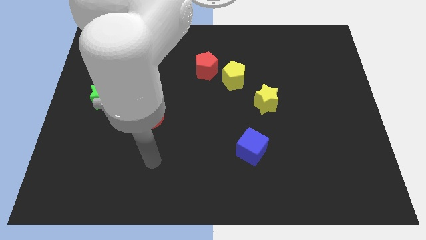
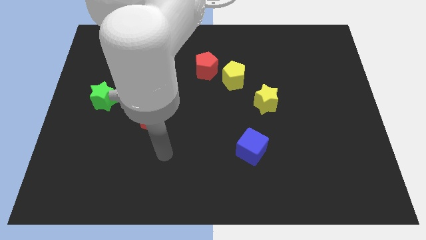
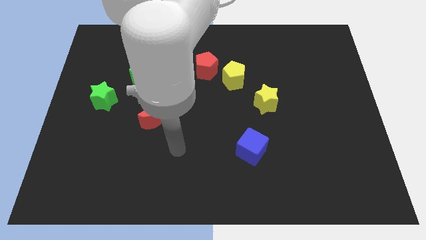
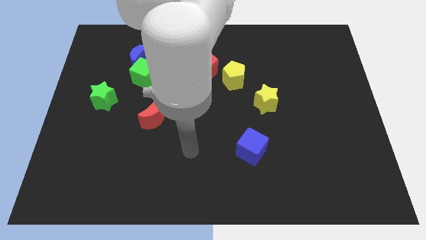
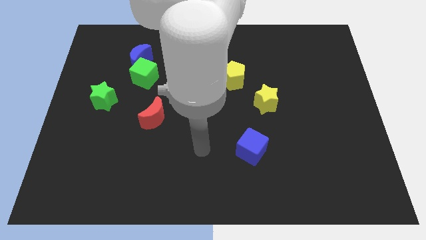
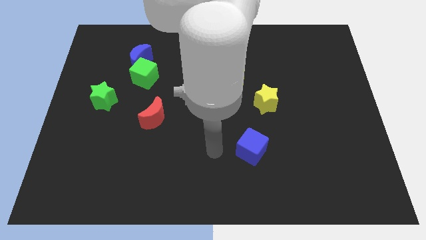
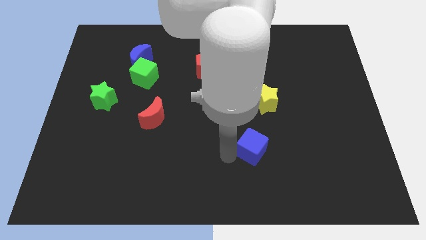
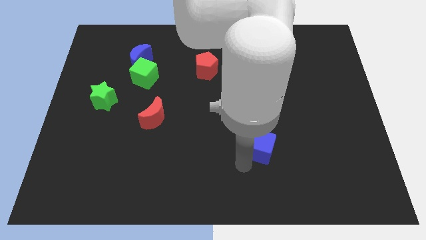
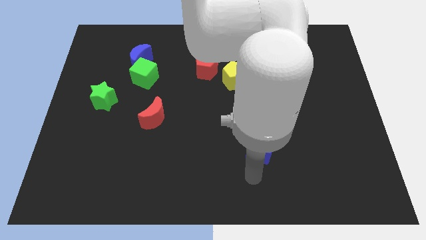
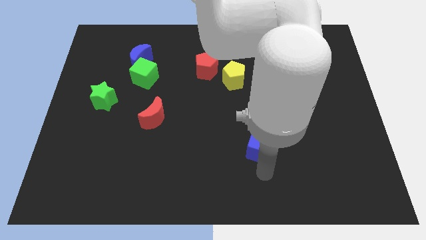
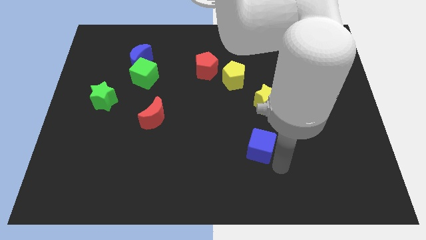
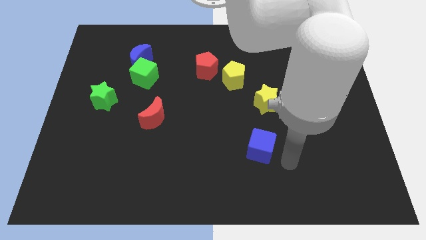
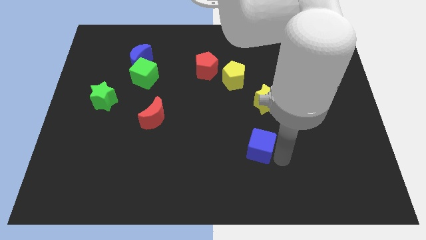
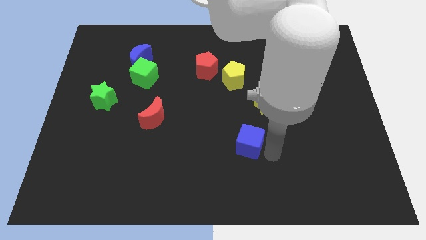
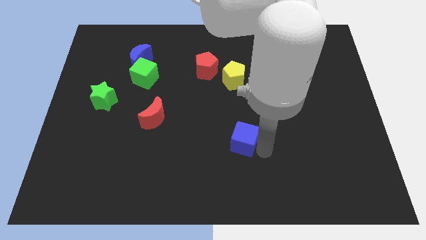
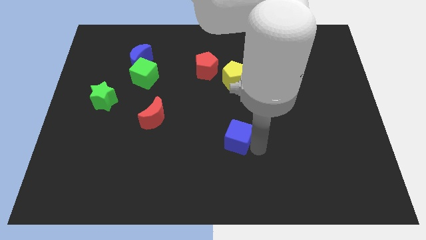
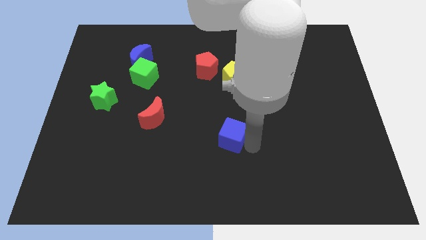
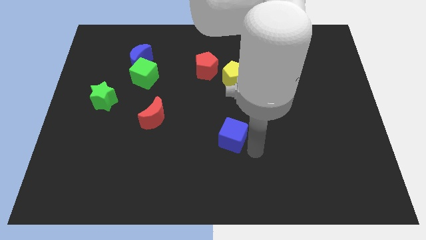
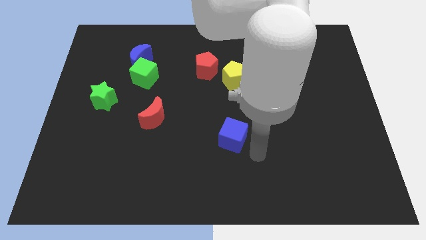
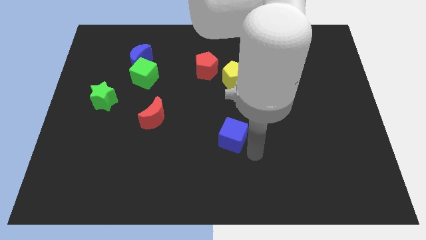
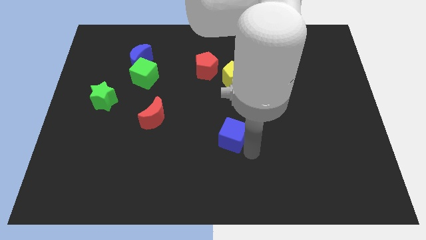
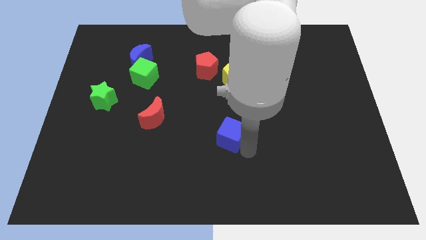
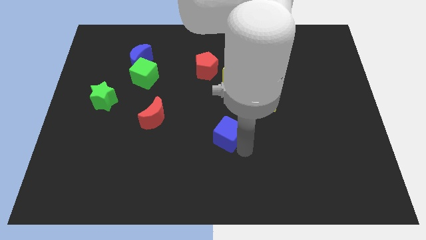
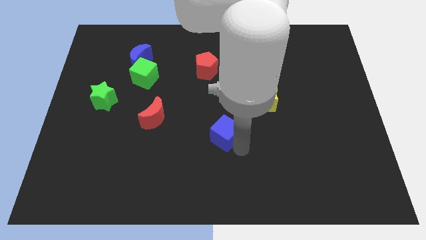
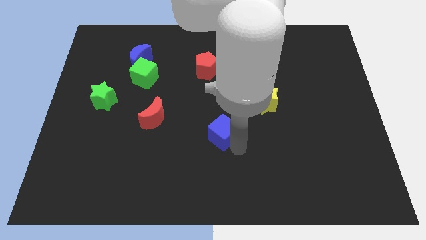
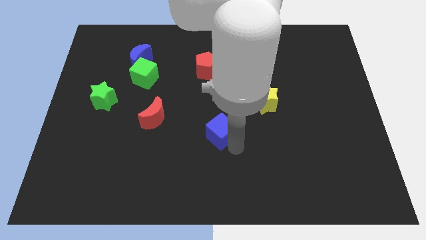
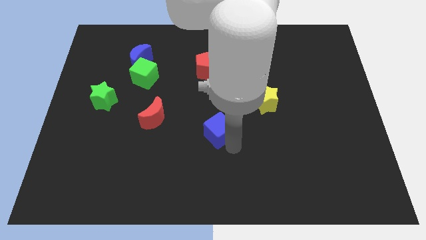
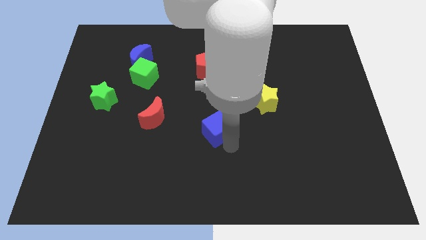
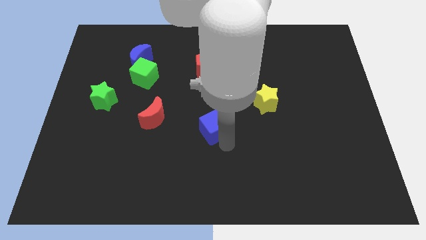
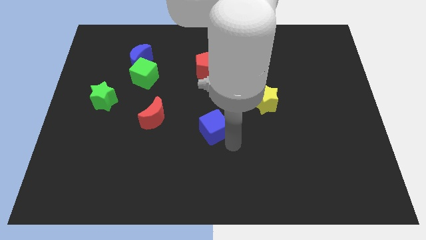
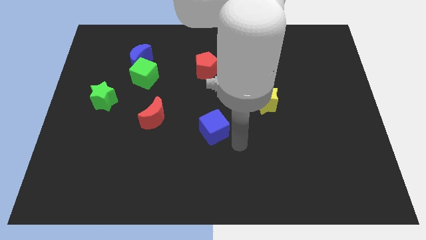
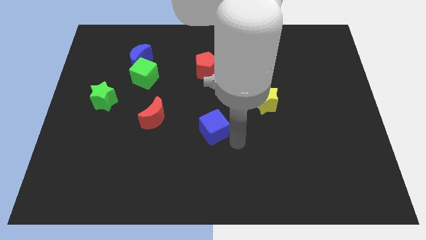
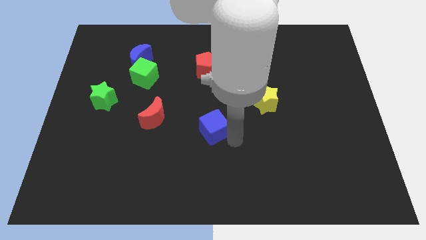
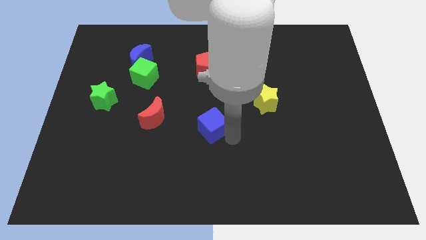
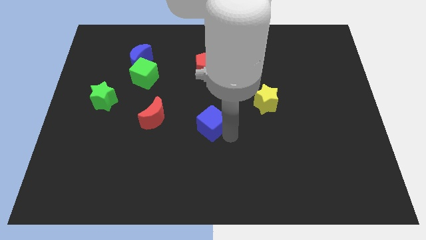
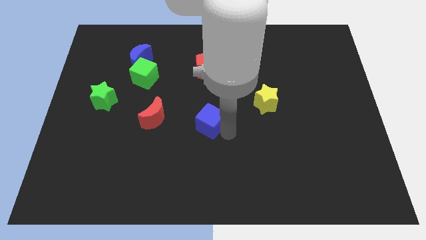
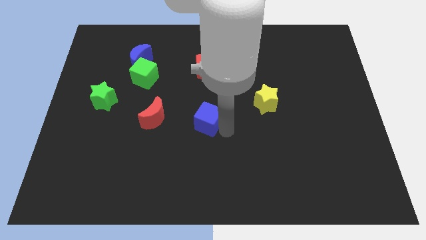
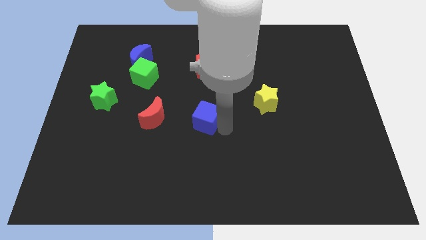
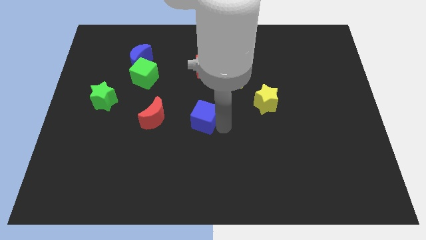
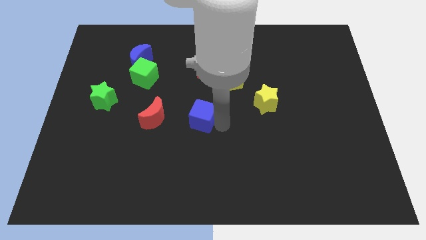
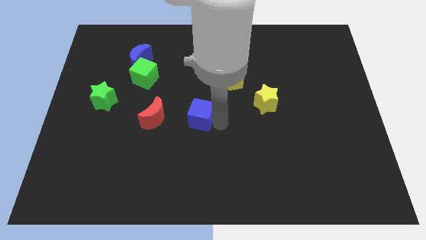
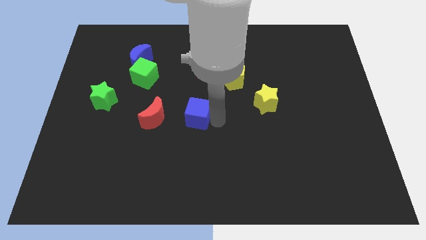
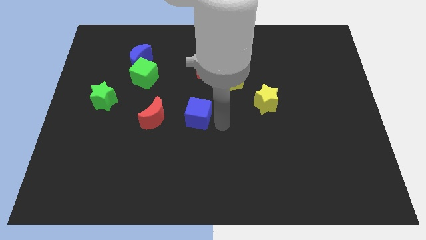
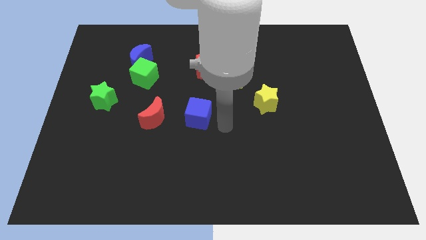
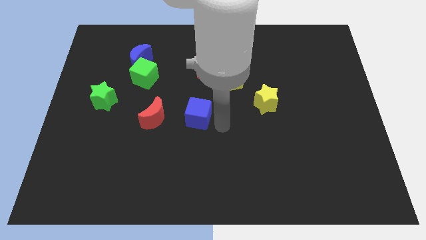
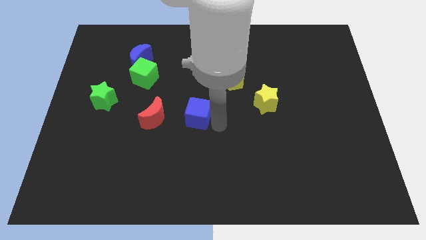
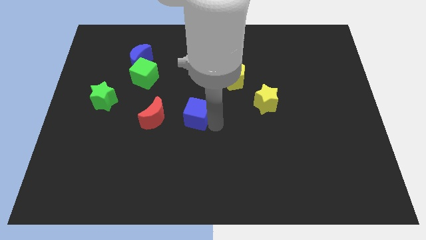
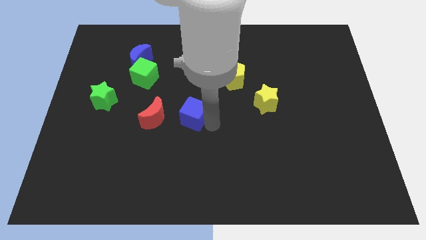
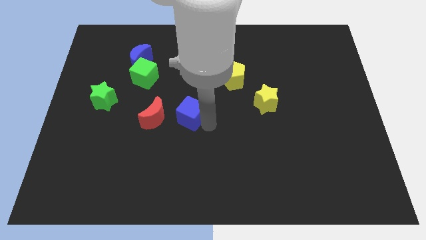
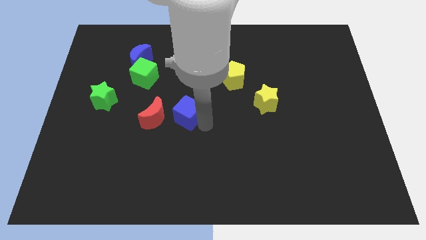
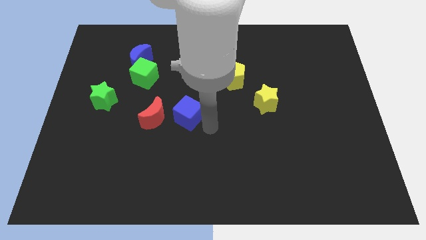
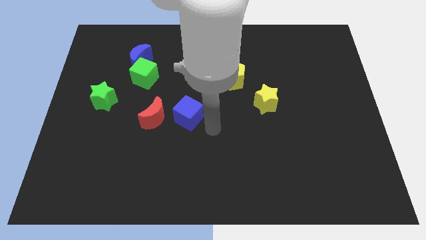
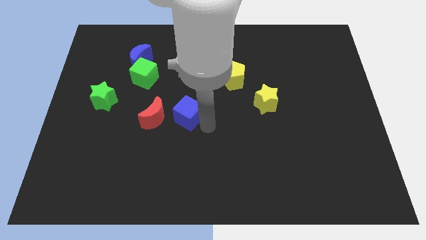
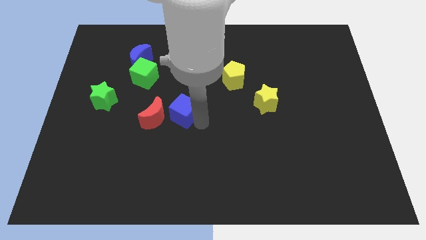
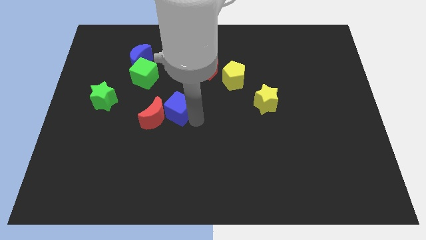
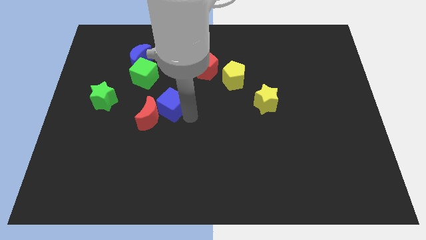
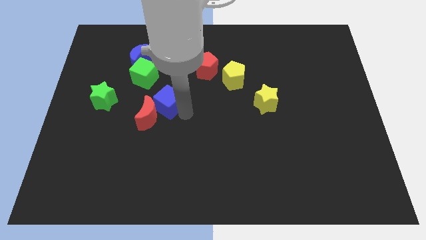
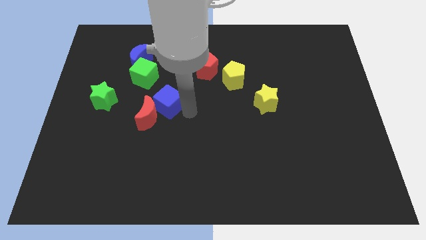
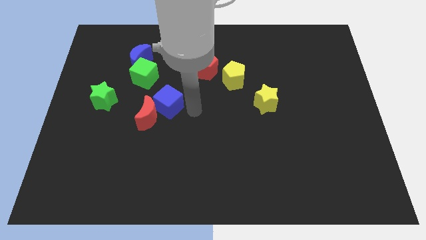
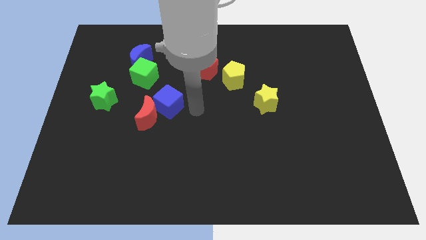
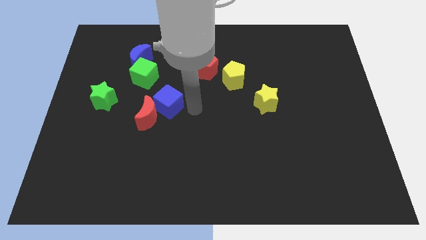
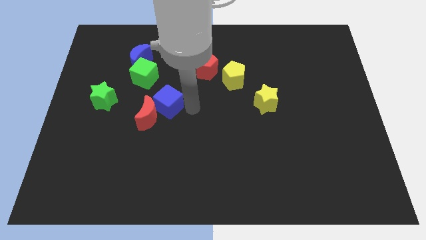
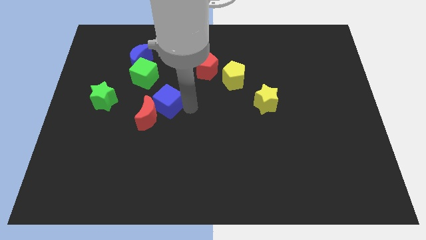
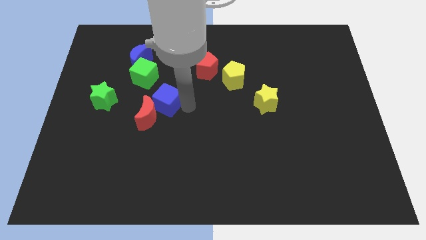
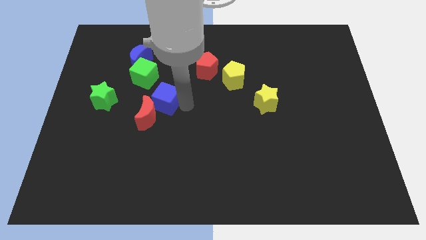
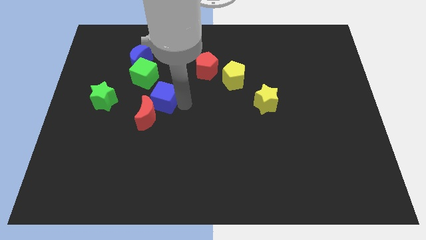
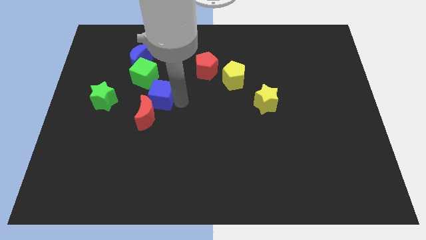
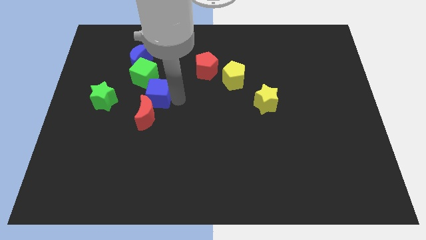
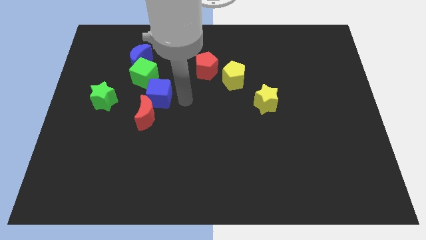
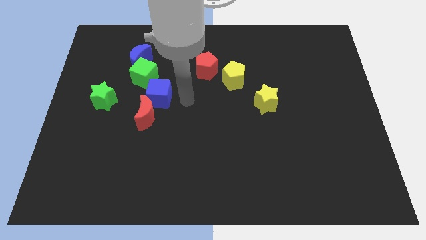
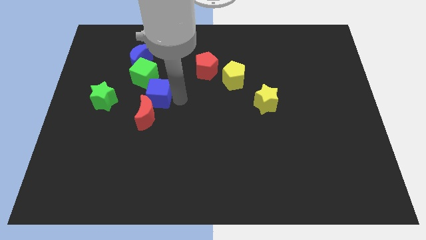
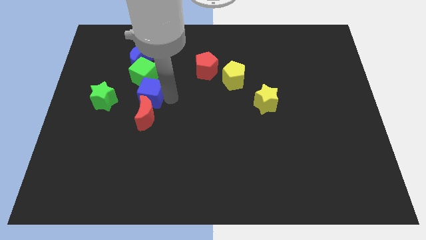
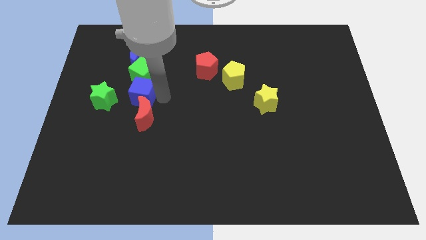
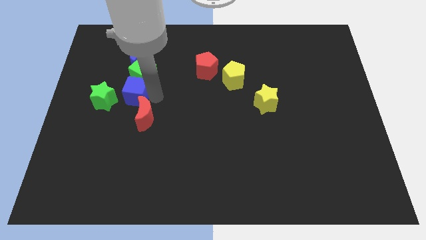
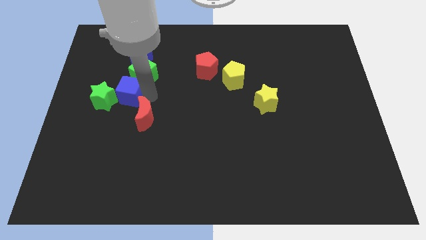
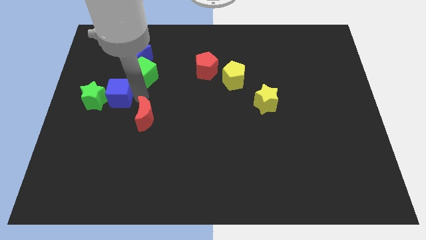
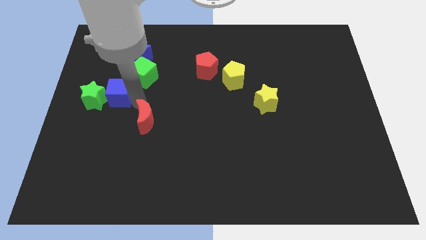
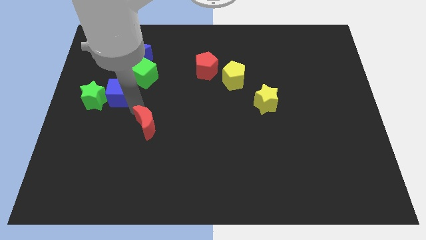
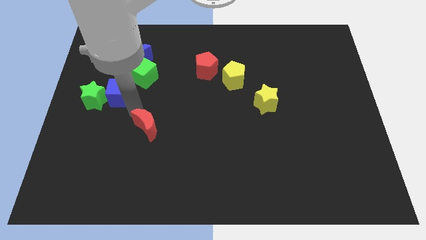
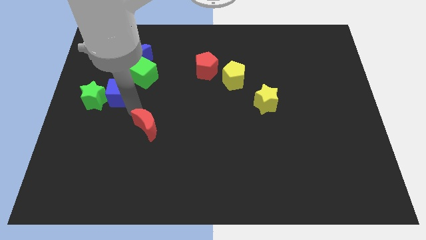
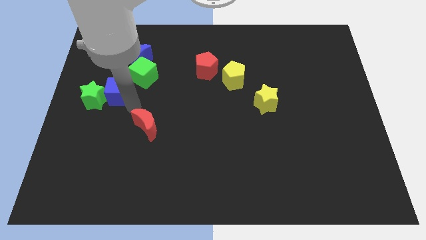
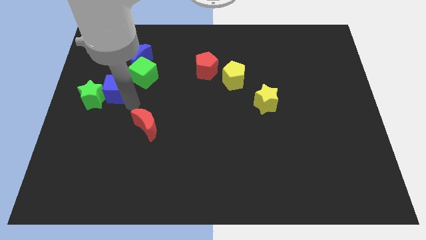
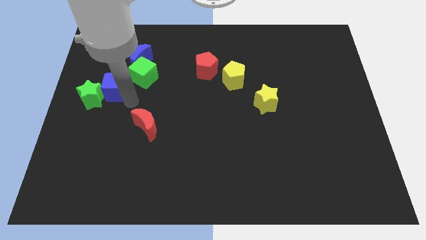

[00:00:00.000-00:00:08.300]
slide the blue cube just left of the green cube
